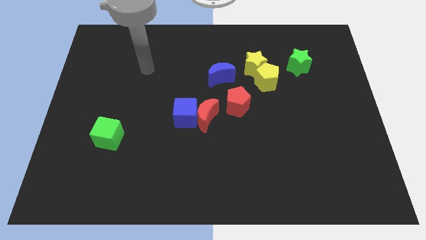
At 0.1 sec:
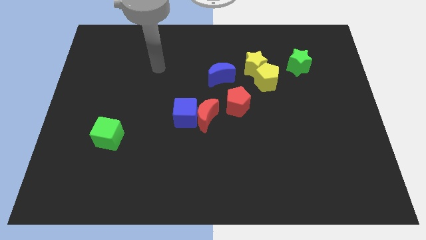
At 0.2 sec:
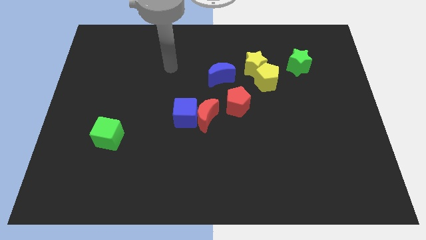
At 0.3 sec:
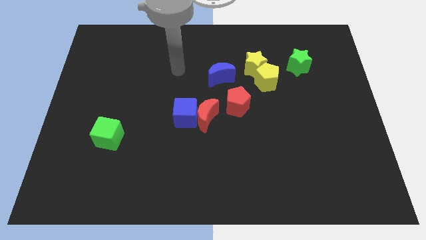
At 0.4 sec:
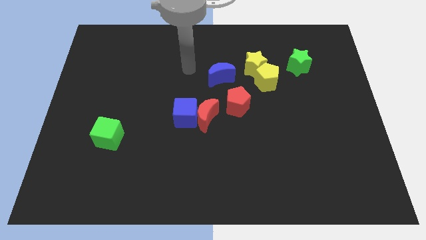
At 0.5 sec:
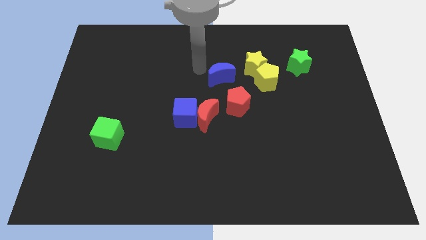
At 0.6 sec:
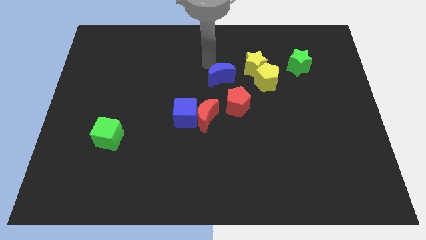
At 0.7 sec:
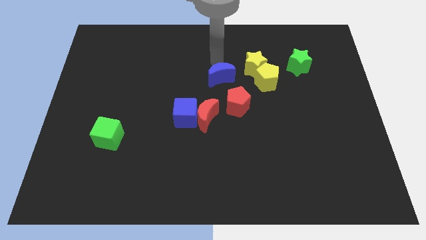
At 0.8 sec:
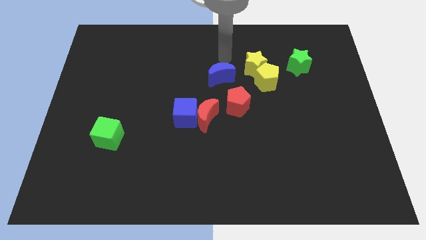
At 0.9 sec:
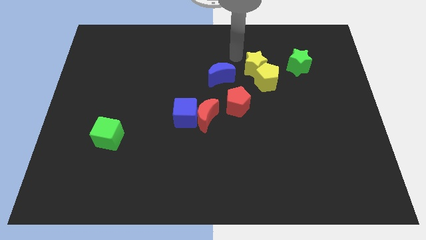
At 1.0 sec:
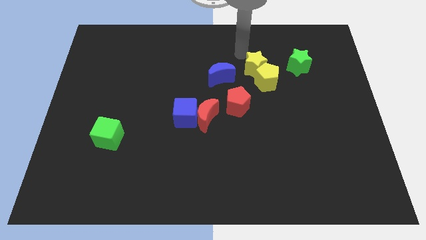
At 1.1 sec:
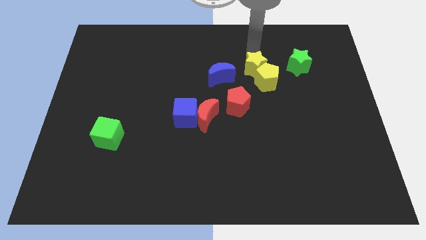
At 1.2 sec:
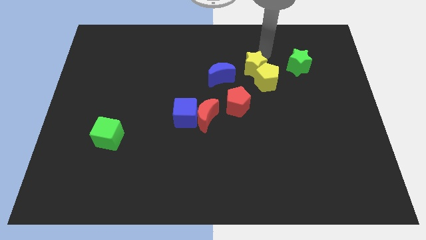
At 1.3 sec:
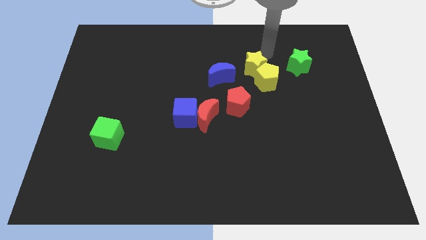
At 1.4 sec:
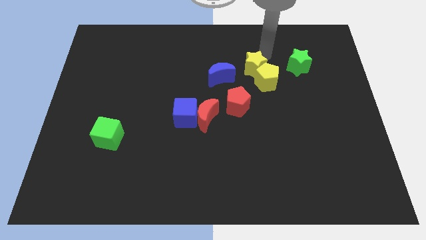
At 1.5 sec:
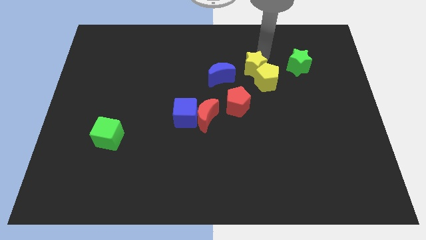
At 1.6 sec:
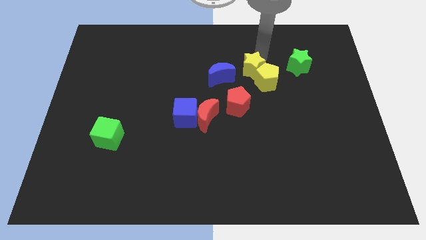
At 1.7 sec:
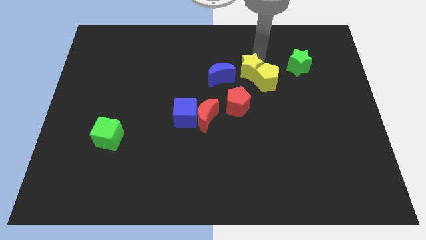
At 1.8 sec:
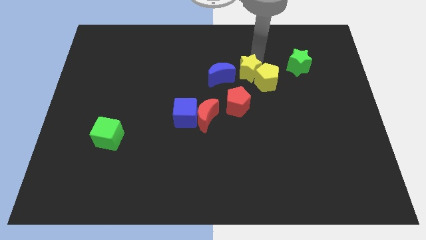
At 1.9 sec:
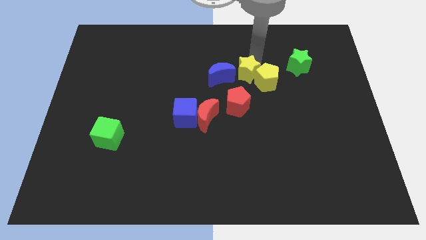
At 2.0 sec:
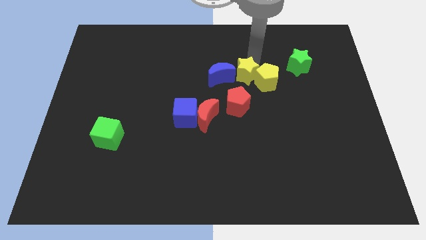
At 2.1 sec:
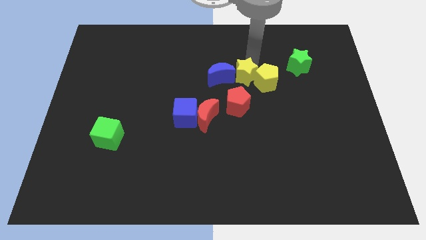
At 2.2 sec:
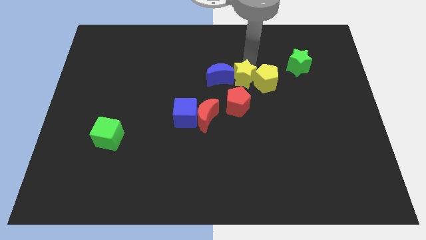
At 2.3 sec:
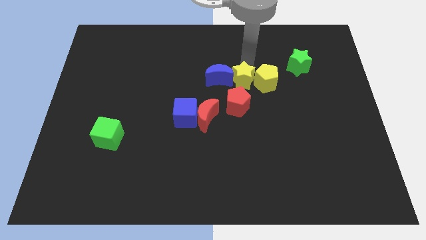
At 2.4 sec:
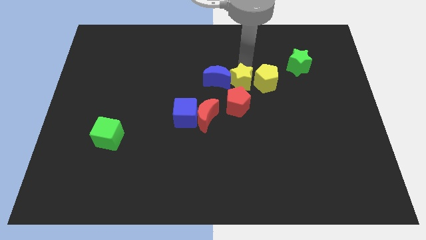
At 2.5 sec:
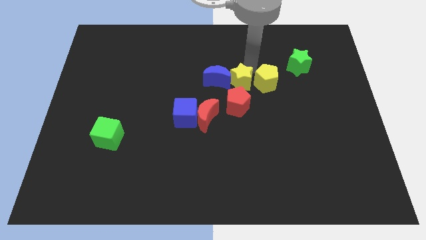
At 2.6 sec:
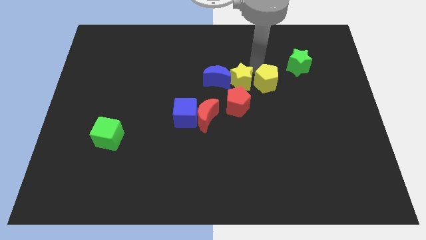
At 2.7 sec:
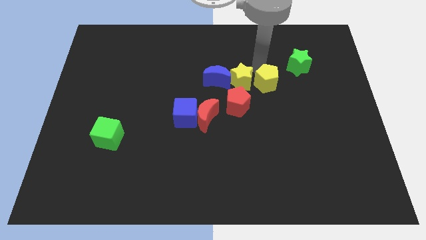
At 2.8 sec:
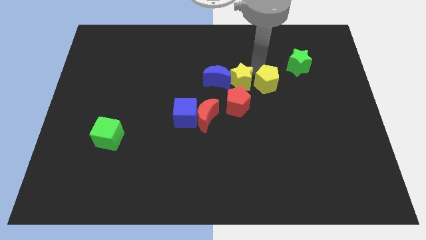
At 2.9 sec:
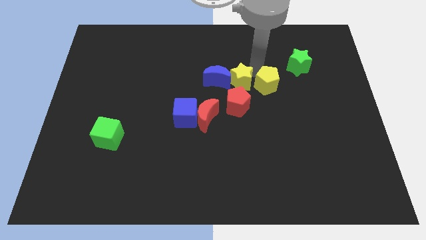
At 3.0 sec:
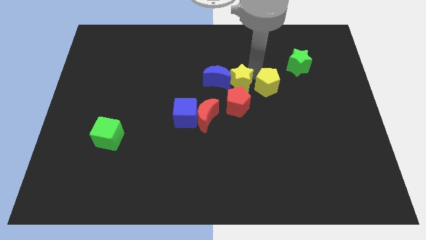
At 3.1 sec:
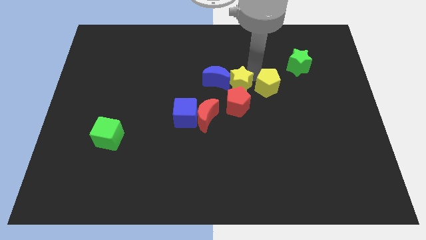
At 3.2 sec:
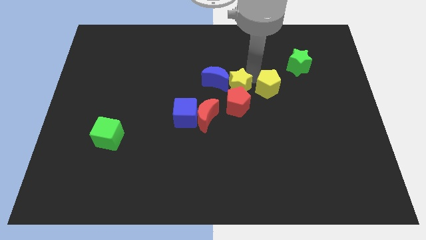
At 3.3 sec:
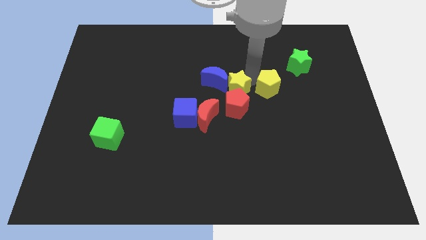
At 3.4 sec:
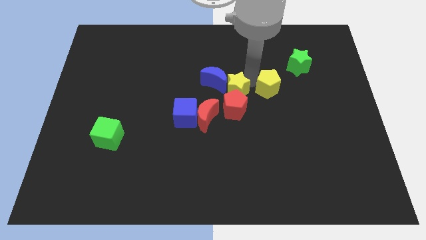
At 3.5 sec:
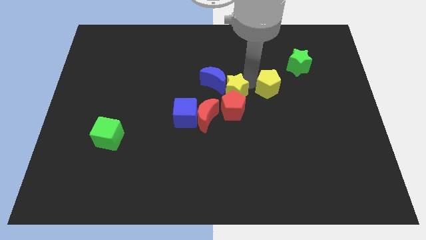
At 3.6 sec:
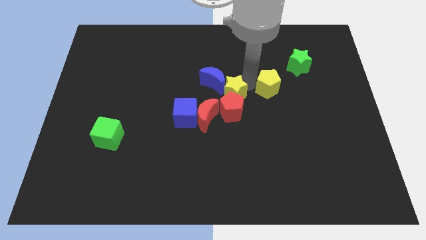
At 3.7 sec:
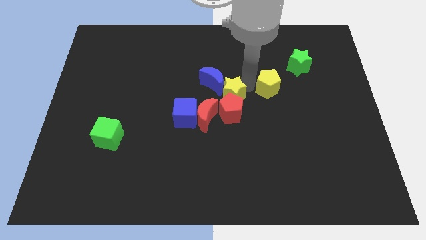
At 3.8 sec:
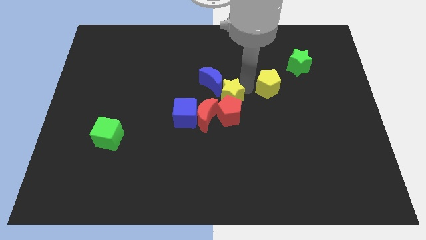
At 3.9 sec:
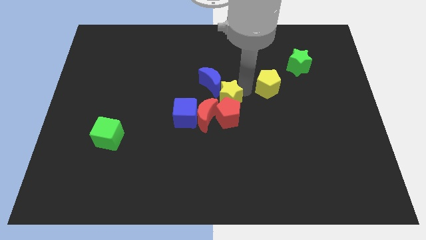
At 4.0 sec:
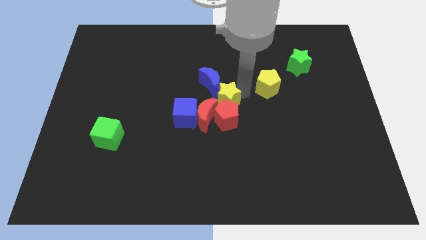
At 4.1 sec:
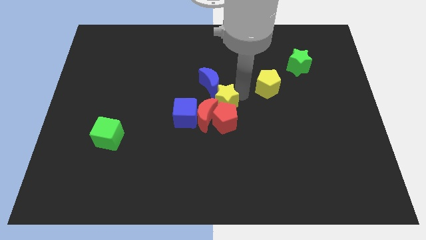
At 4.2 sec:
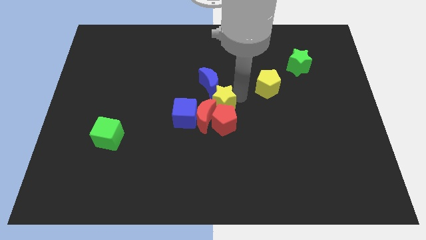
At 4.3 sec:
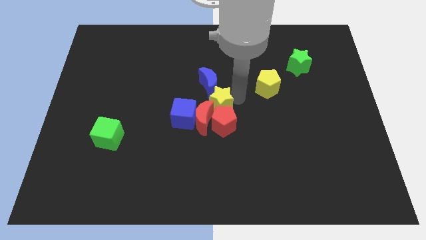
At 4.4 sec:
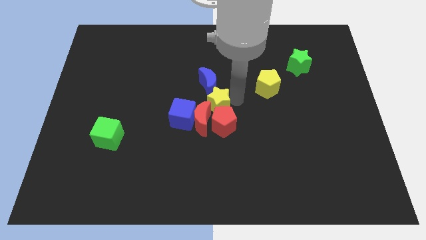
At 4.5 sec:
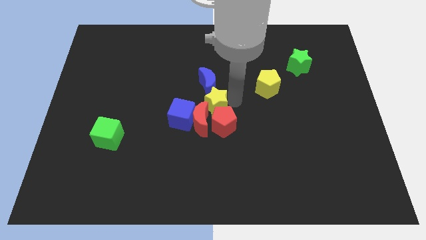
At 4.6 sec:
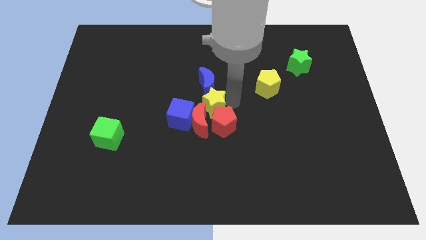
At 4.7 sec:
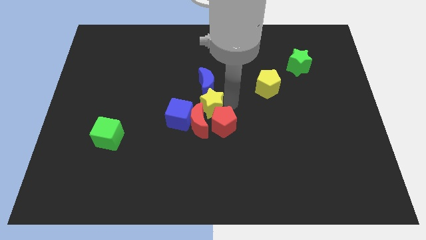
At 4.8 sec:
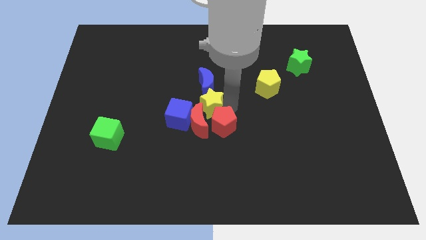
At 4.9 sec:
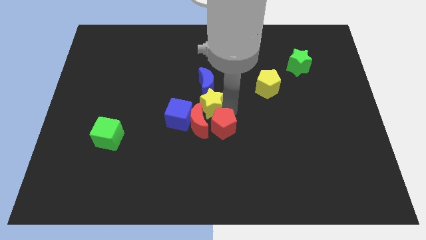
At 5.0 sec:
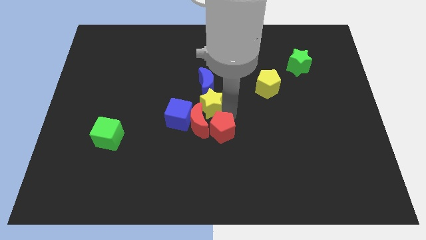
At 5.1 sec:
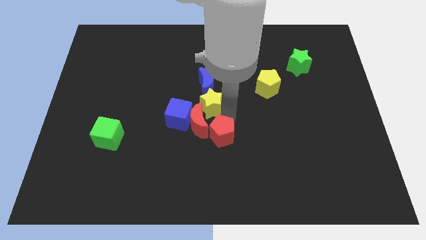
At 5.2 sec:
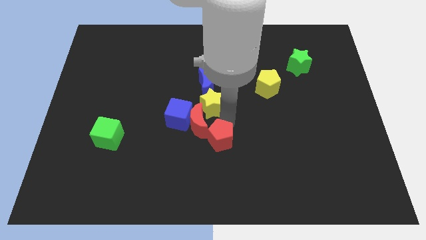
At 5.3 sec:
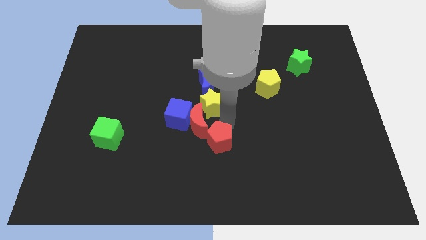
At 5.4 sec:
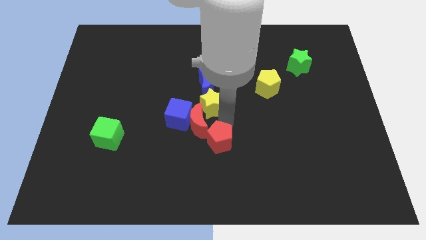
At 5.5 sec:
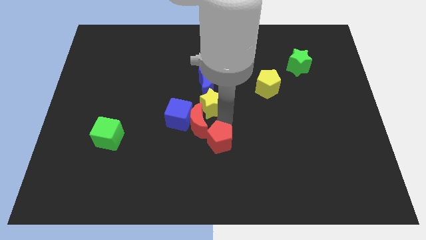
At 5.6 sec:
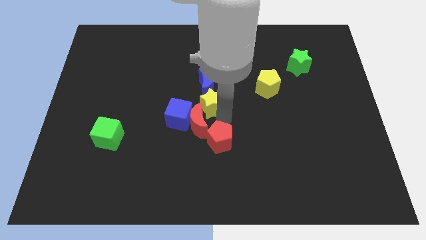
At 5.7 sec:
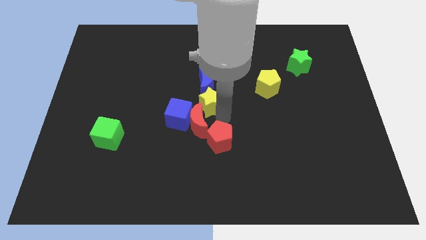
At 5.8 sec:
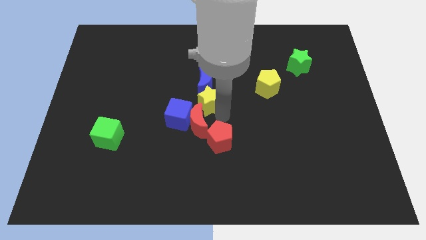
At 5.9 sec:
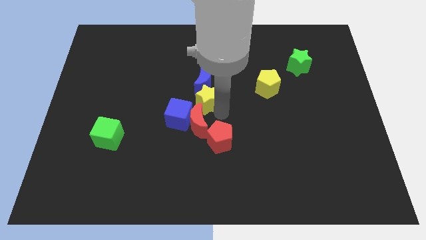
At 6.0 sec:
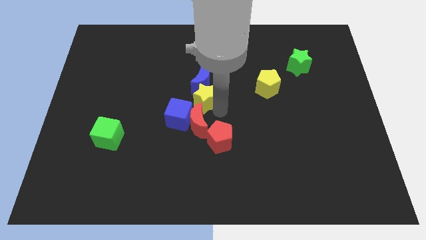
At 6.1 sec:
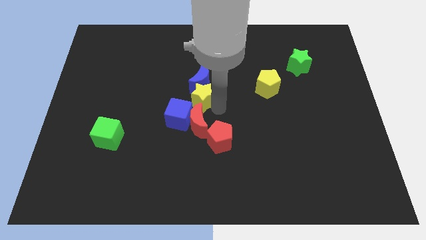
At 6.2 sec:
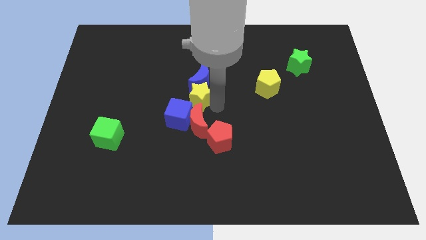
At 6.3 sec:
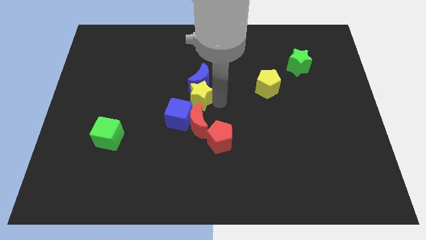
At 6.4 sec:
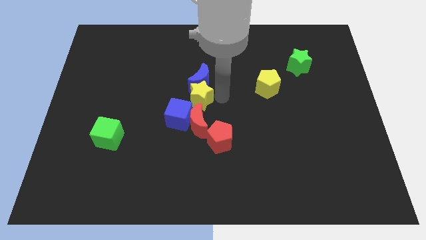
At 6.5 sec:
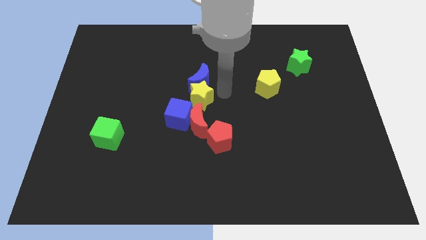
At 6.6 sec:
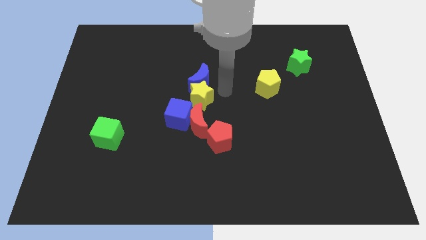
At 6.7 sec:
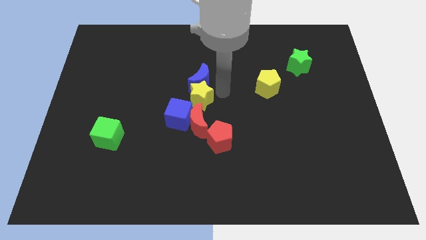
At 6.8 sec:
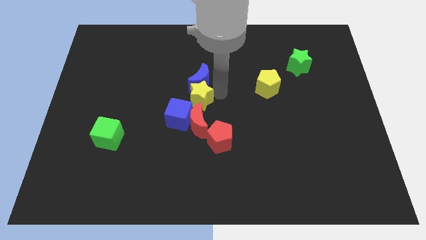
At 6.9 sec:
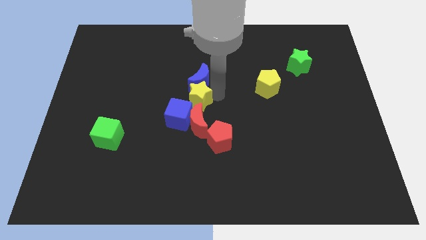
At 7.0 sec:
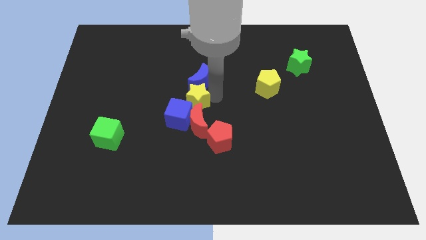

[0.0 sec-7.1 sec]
push the yellow star diagonally up and to the left of the red moon

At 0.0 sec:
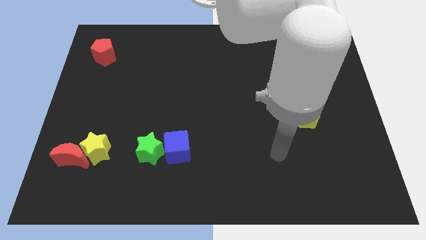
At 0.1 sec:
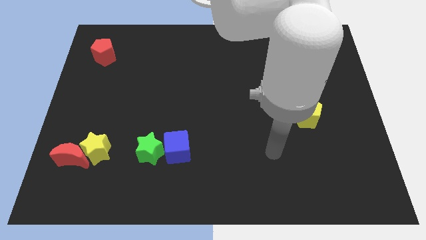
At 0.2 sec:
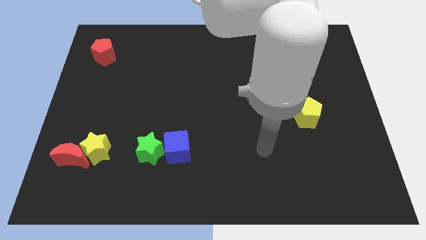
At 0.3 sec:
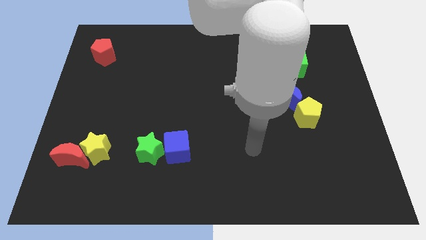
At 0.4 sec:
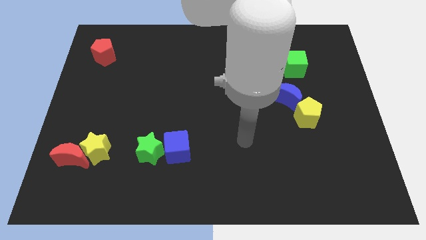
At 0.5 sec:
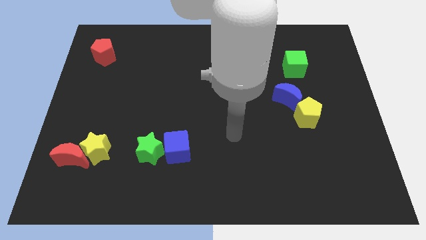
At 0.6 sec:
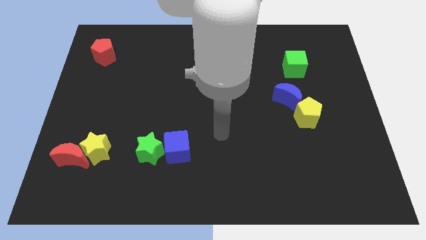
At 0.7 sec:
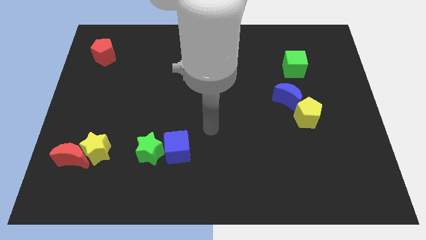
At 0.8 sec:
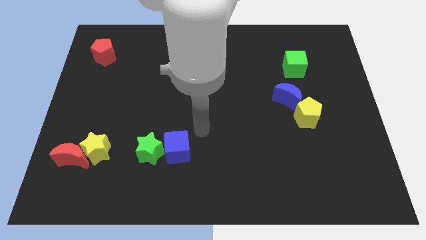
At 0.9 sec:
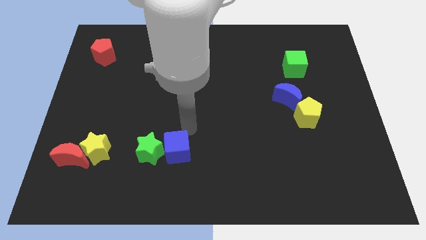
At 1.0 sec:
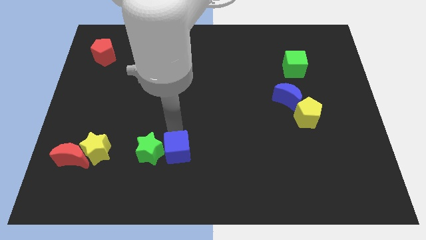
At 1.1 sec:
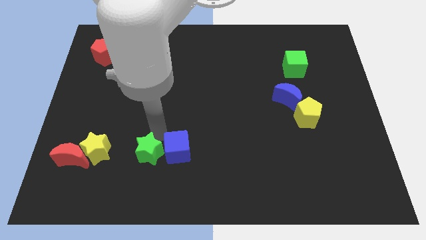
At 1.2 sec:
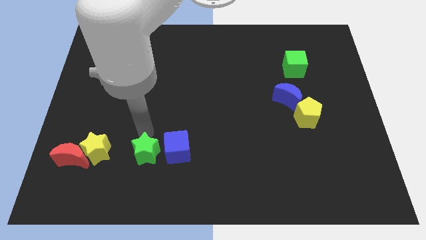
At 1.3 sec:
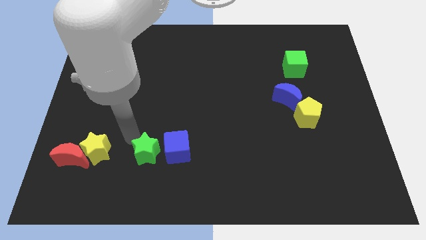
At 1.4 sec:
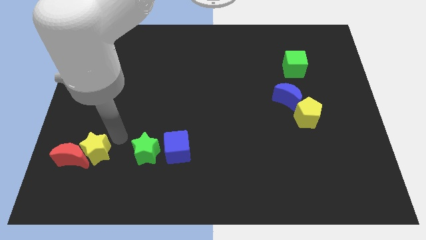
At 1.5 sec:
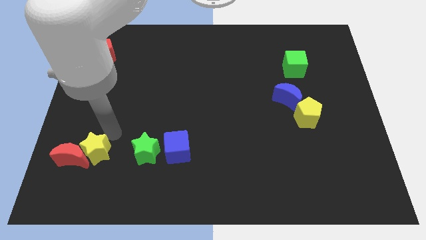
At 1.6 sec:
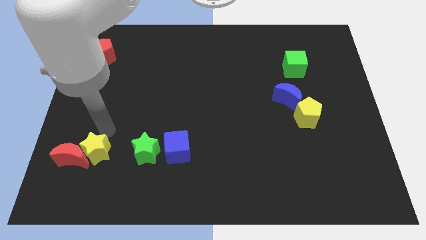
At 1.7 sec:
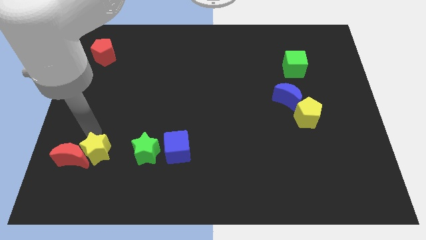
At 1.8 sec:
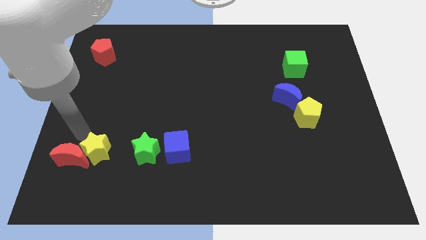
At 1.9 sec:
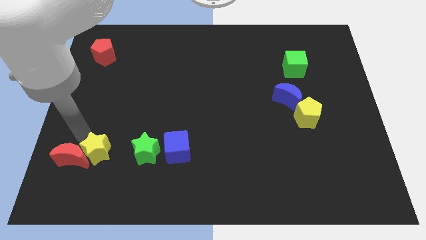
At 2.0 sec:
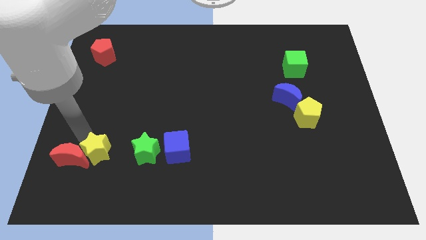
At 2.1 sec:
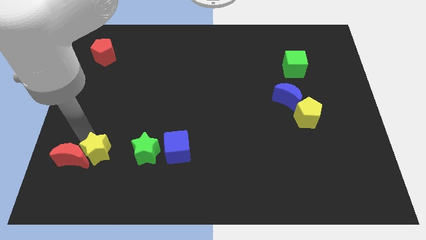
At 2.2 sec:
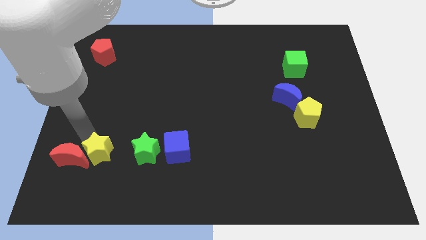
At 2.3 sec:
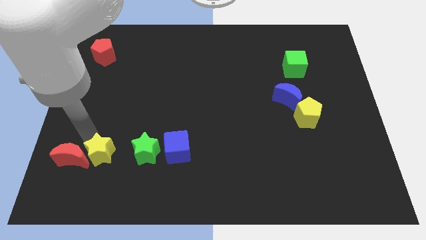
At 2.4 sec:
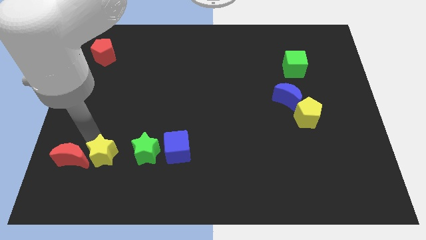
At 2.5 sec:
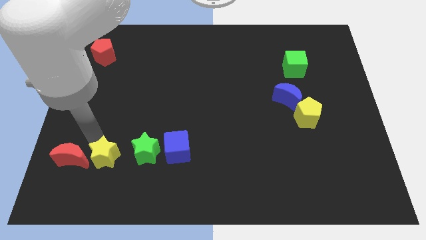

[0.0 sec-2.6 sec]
put the yellow star to the bottom left of the green star
